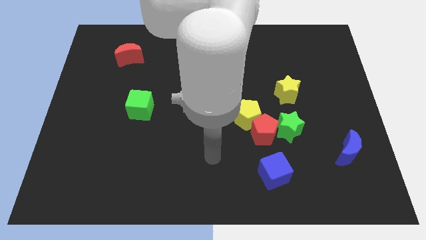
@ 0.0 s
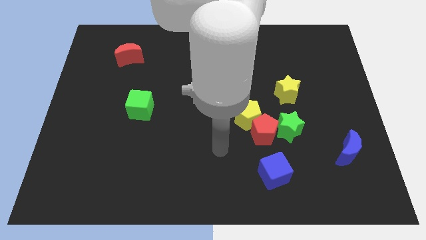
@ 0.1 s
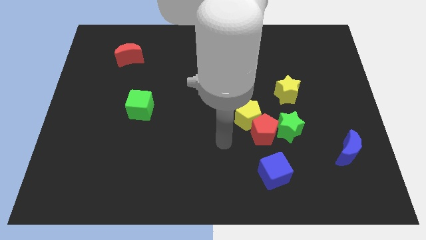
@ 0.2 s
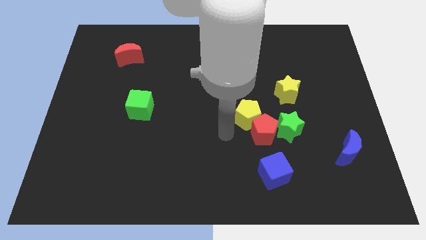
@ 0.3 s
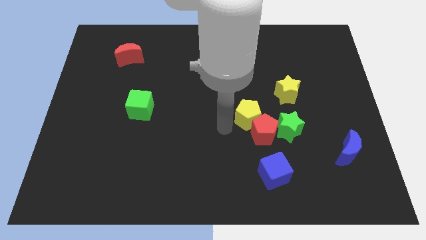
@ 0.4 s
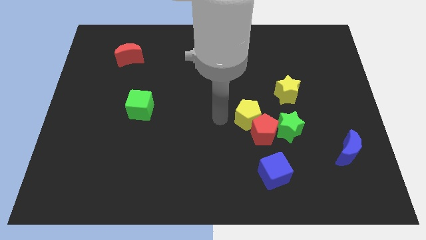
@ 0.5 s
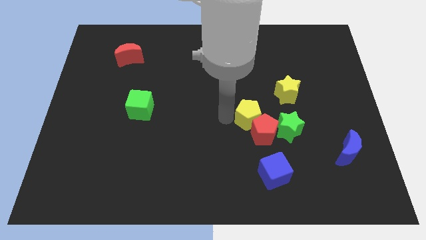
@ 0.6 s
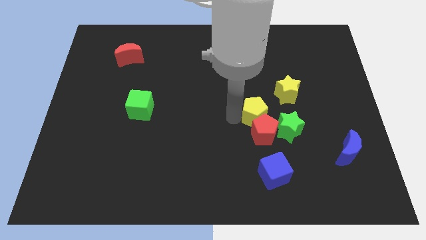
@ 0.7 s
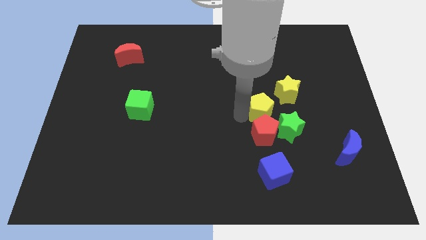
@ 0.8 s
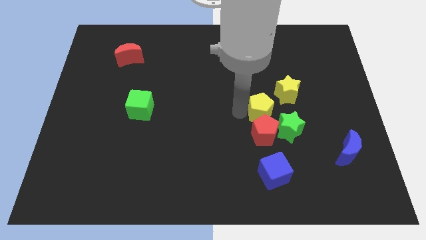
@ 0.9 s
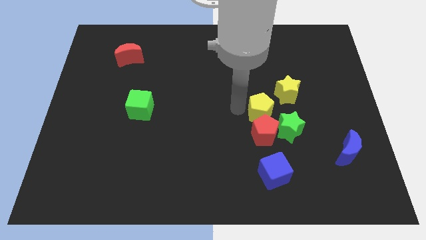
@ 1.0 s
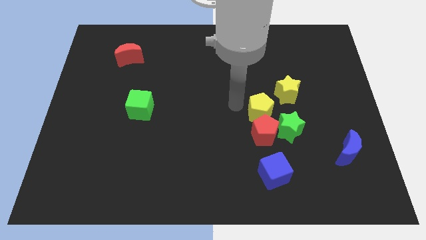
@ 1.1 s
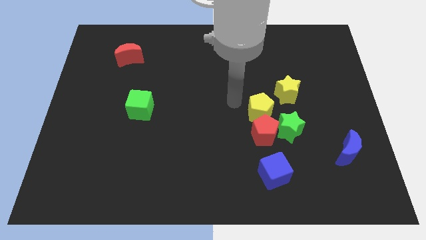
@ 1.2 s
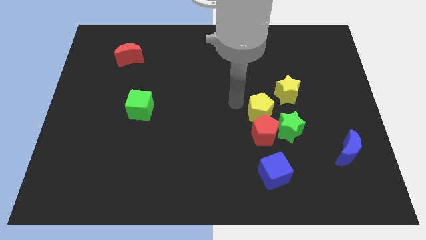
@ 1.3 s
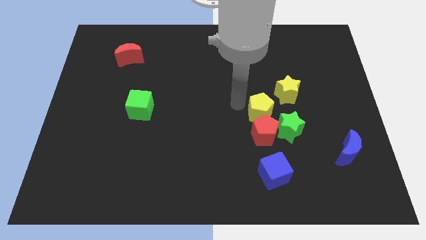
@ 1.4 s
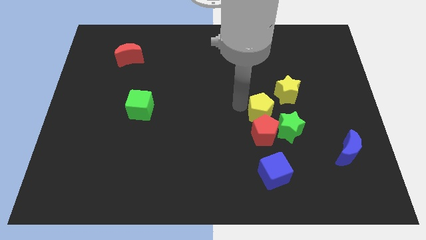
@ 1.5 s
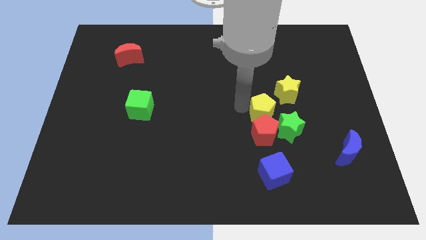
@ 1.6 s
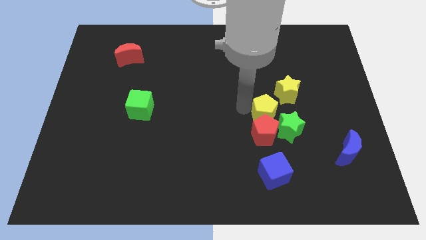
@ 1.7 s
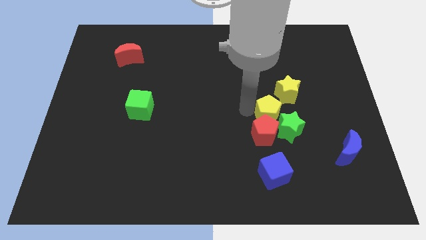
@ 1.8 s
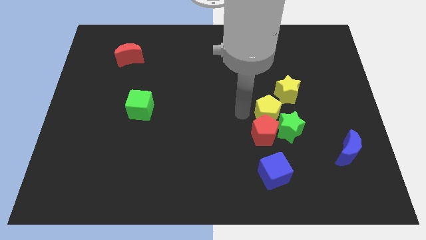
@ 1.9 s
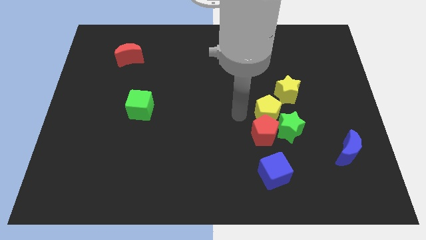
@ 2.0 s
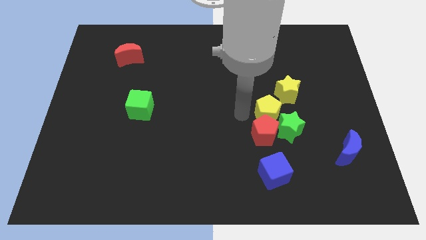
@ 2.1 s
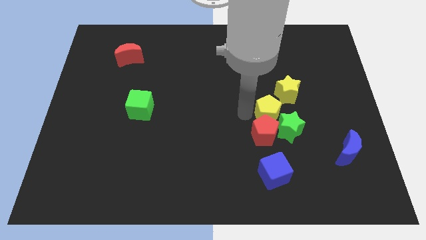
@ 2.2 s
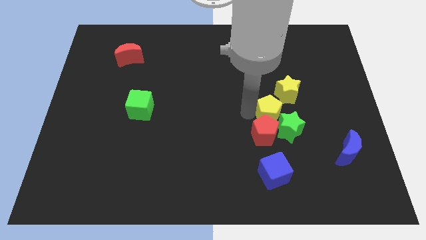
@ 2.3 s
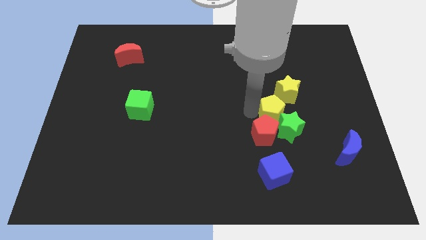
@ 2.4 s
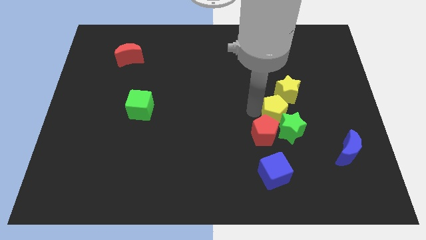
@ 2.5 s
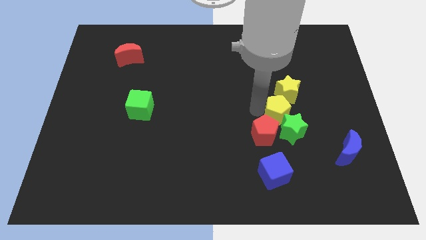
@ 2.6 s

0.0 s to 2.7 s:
push the yellow pentagon to the right a bit

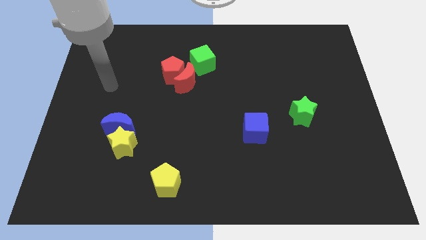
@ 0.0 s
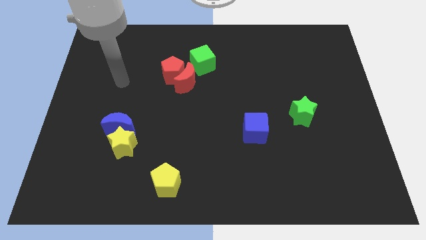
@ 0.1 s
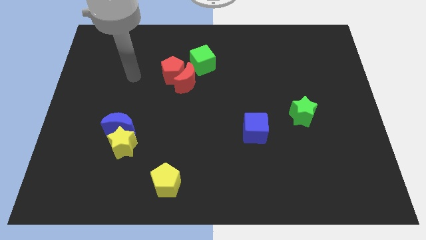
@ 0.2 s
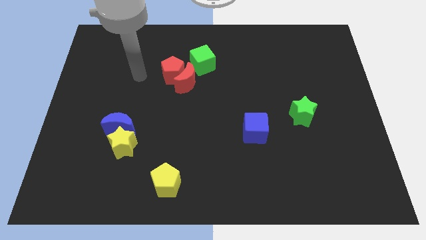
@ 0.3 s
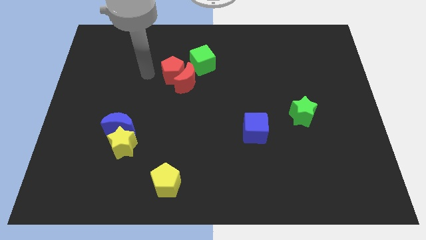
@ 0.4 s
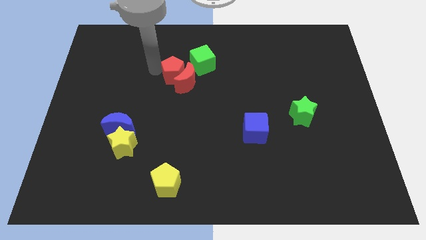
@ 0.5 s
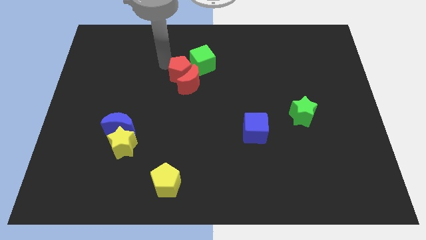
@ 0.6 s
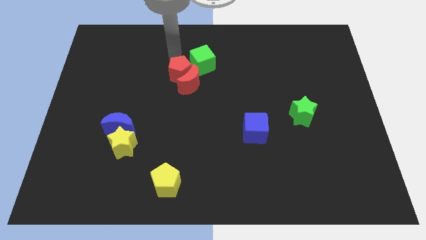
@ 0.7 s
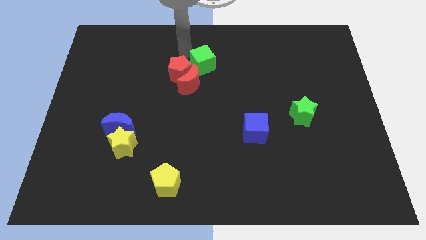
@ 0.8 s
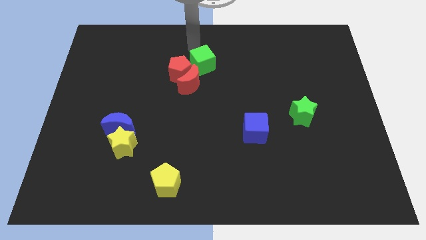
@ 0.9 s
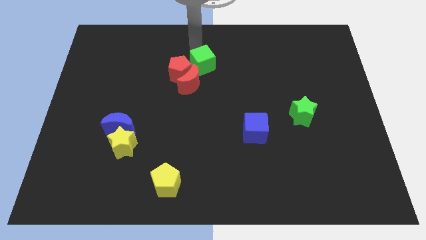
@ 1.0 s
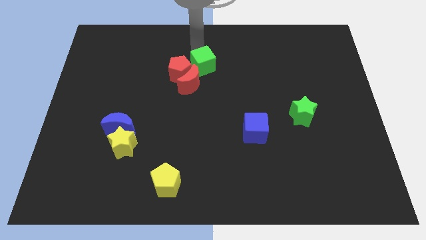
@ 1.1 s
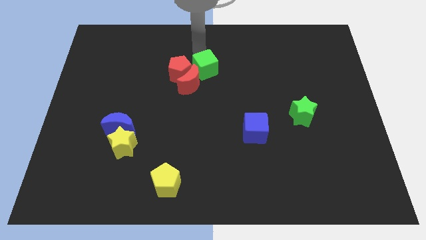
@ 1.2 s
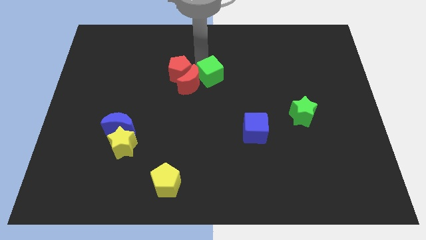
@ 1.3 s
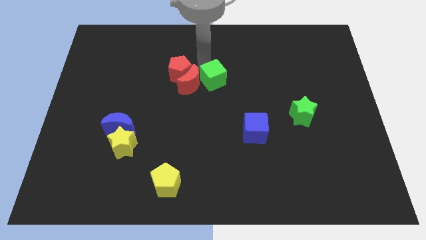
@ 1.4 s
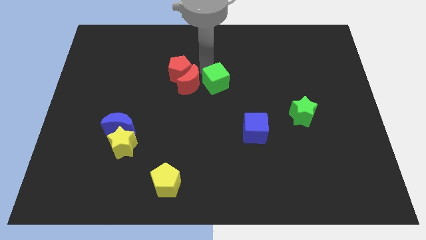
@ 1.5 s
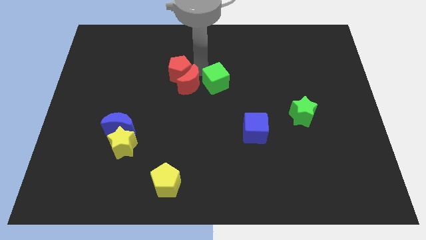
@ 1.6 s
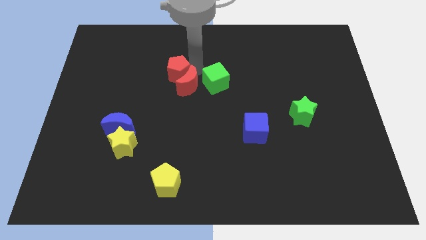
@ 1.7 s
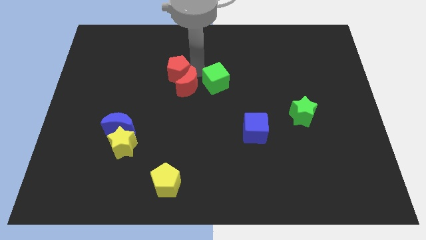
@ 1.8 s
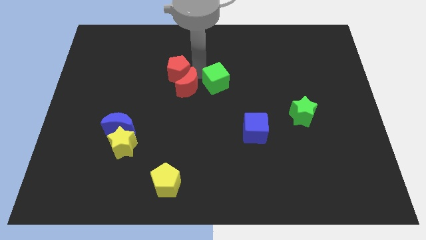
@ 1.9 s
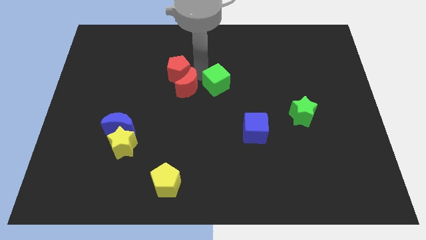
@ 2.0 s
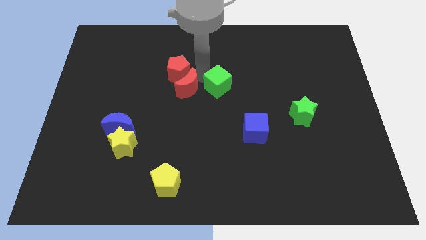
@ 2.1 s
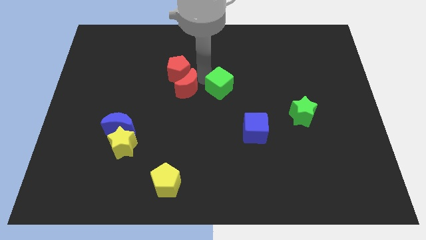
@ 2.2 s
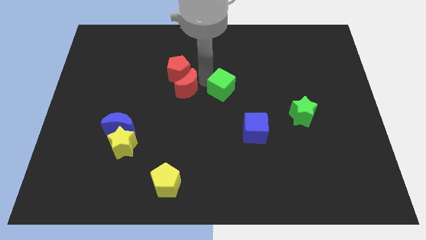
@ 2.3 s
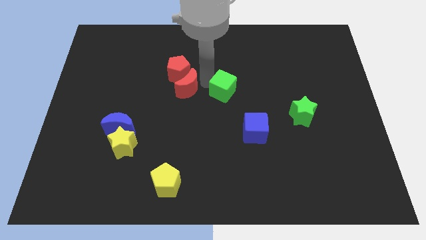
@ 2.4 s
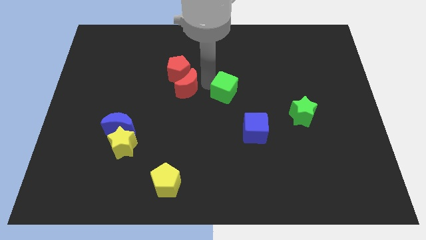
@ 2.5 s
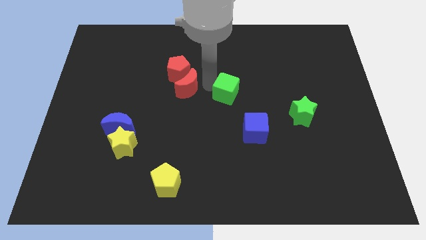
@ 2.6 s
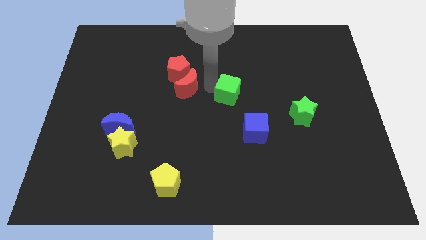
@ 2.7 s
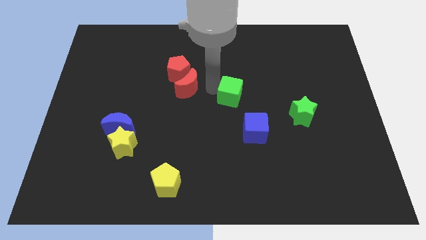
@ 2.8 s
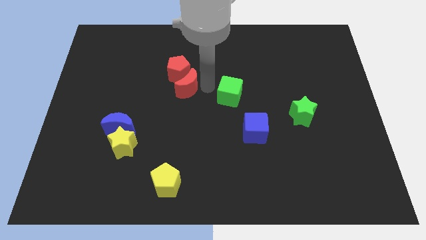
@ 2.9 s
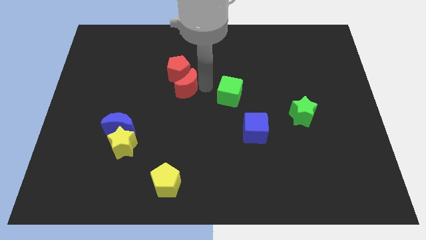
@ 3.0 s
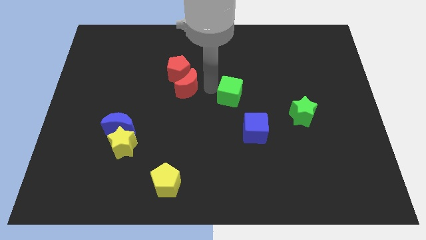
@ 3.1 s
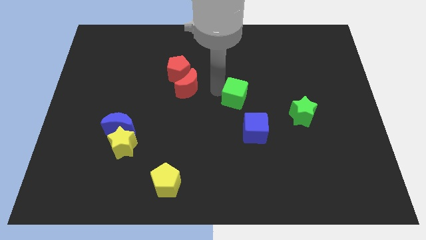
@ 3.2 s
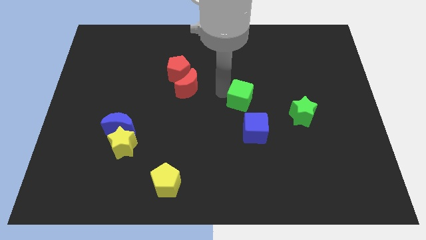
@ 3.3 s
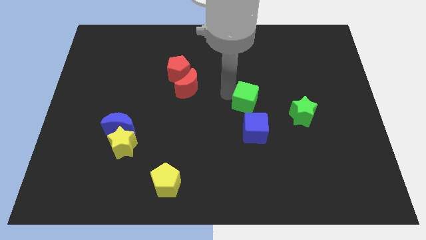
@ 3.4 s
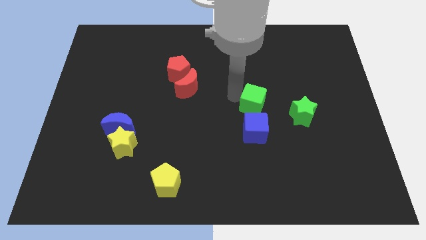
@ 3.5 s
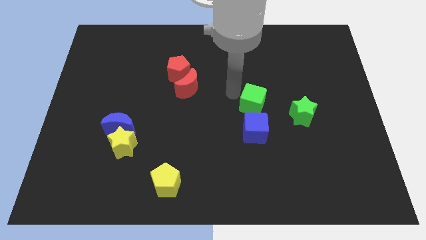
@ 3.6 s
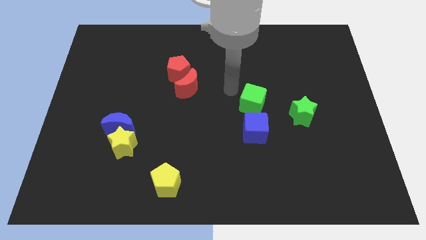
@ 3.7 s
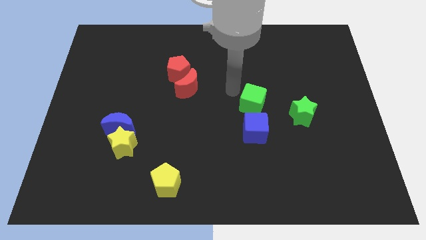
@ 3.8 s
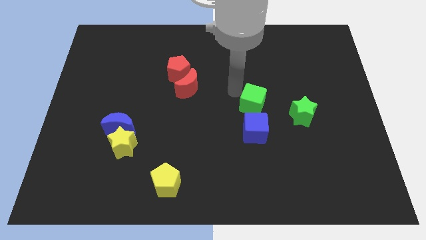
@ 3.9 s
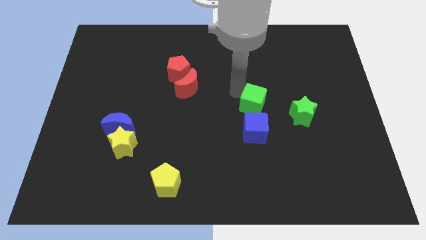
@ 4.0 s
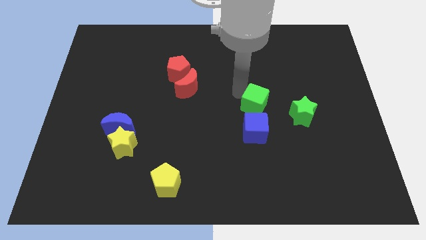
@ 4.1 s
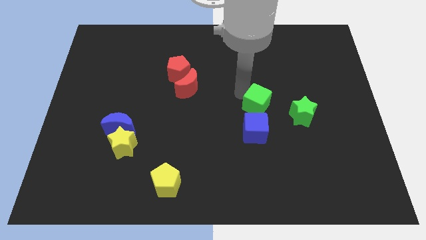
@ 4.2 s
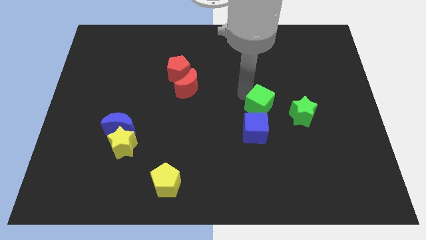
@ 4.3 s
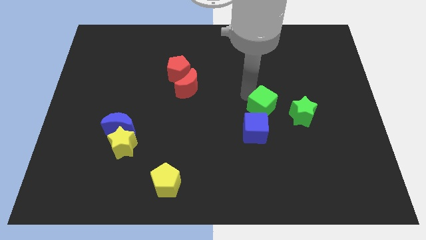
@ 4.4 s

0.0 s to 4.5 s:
move the green cube down and then right

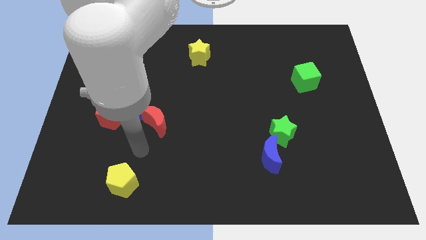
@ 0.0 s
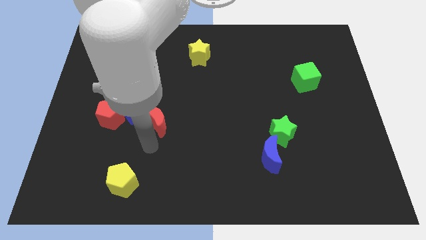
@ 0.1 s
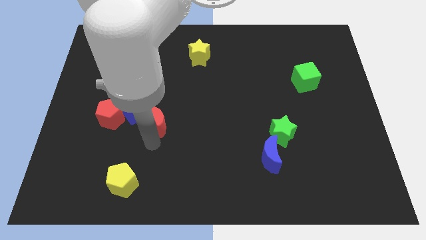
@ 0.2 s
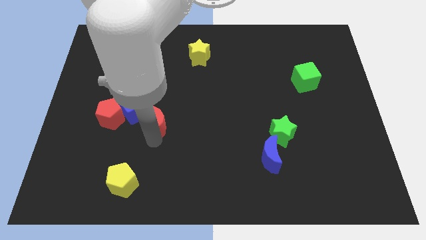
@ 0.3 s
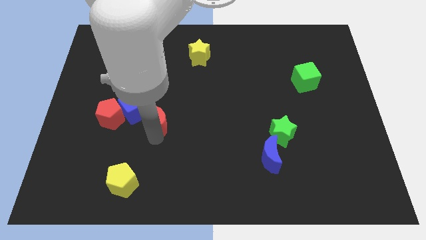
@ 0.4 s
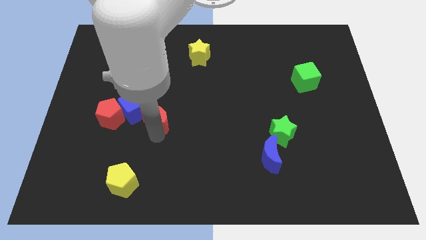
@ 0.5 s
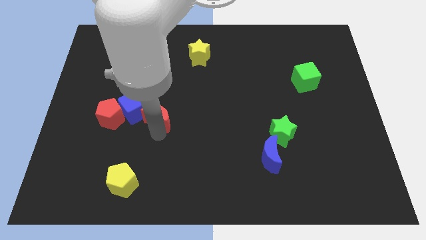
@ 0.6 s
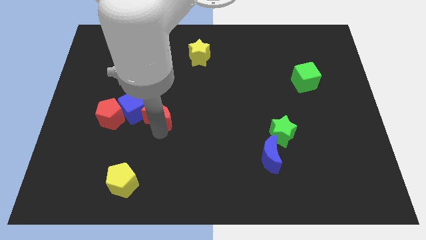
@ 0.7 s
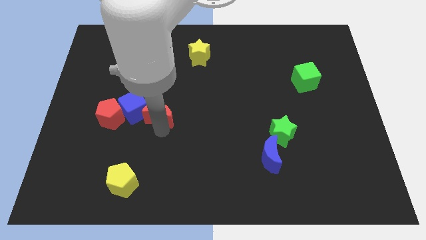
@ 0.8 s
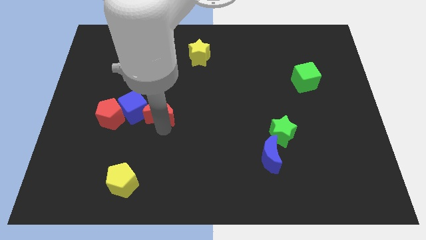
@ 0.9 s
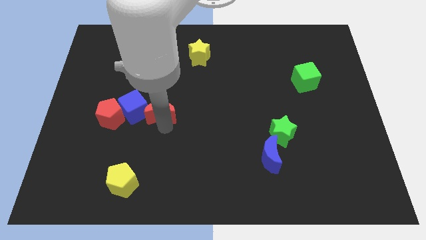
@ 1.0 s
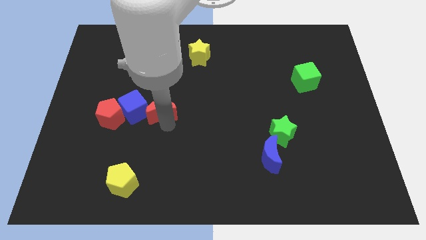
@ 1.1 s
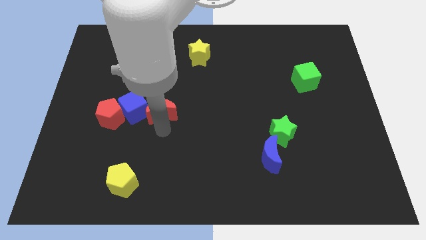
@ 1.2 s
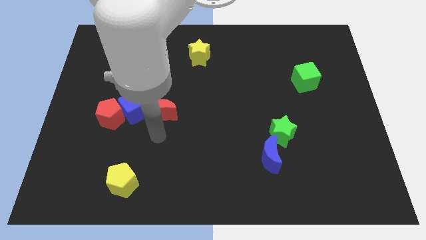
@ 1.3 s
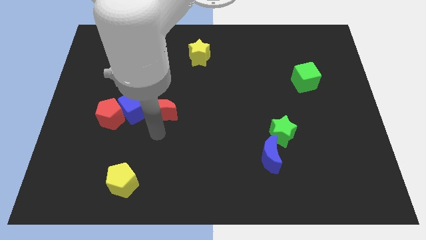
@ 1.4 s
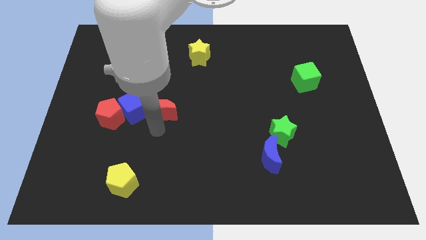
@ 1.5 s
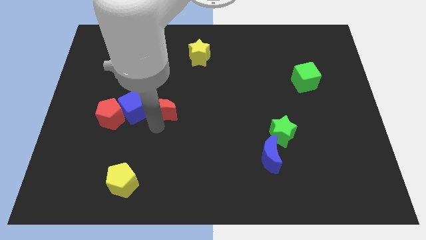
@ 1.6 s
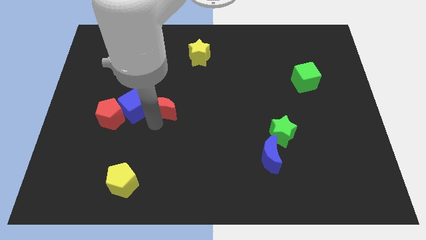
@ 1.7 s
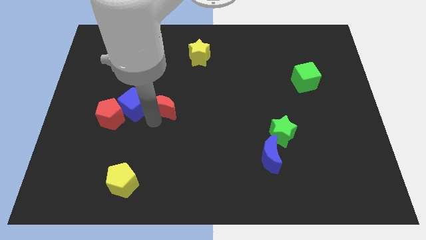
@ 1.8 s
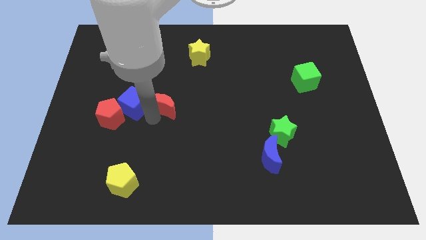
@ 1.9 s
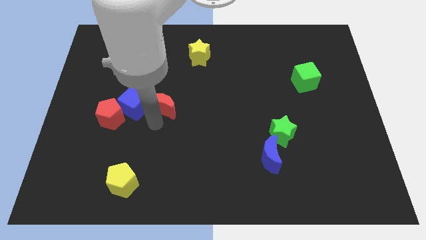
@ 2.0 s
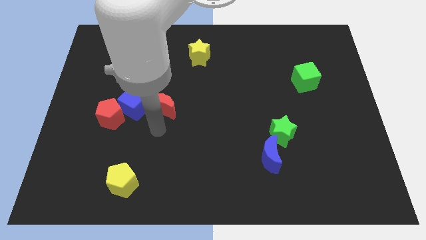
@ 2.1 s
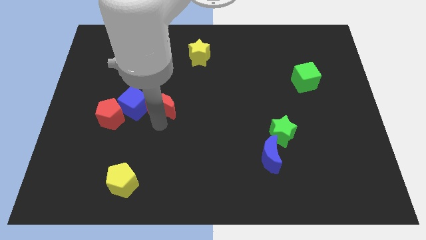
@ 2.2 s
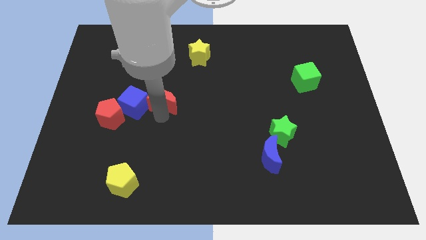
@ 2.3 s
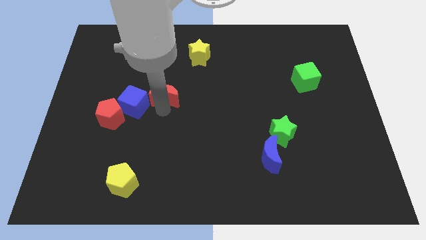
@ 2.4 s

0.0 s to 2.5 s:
slightly push the red moon up
